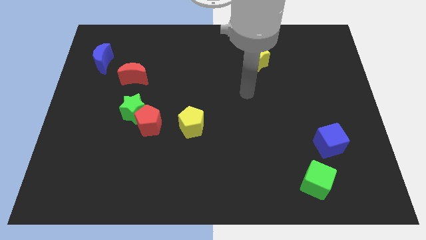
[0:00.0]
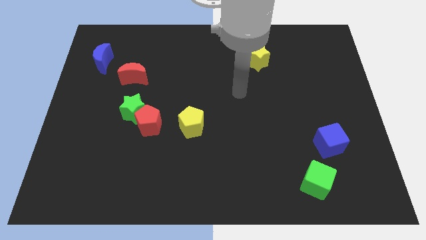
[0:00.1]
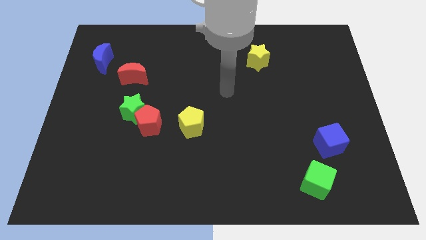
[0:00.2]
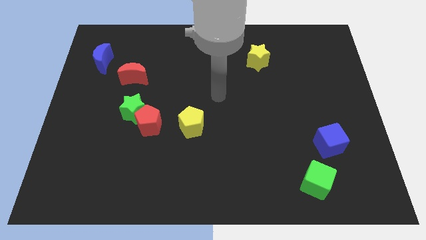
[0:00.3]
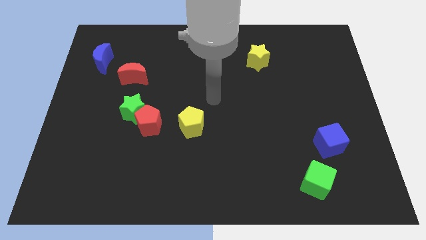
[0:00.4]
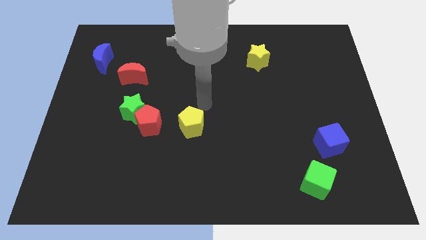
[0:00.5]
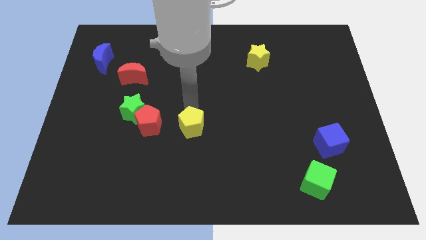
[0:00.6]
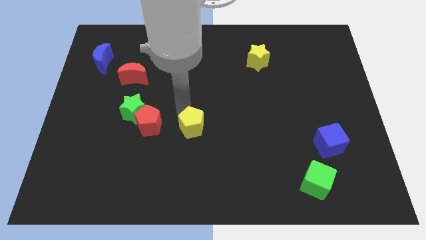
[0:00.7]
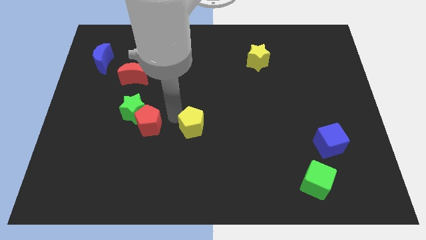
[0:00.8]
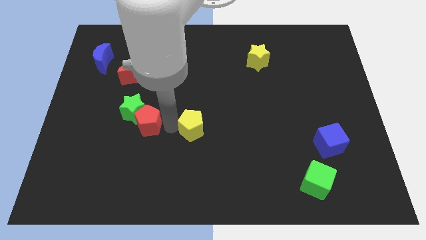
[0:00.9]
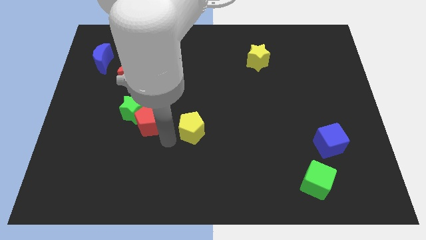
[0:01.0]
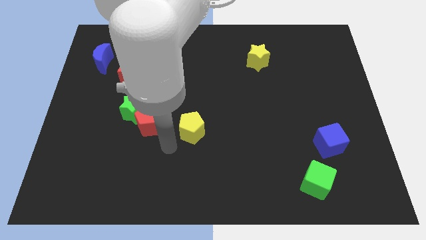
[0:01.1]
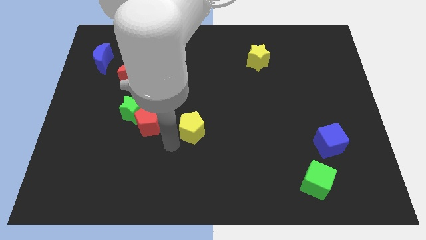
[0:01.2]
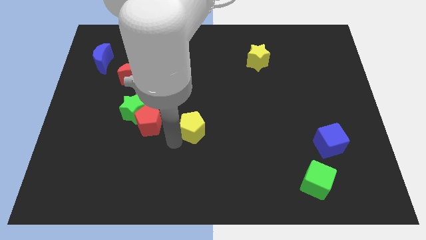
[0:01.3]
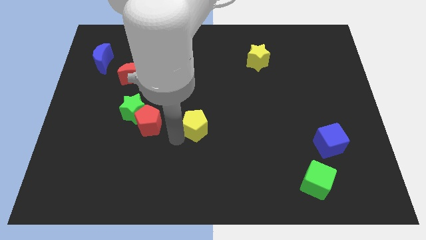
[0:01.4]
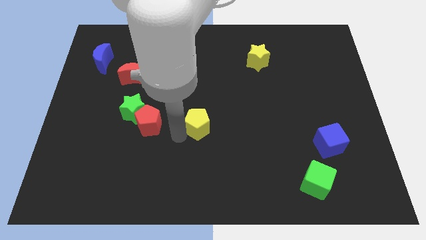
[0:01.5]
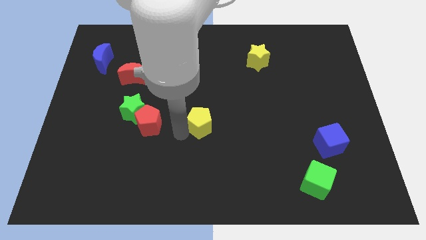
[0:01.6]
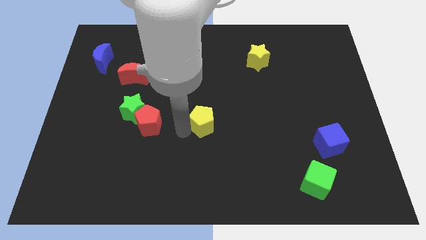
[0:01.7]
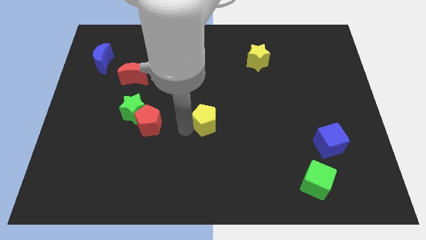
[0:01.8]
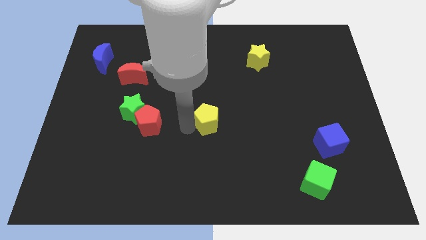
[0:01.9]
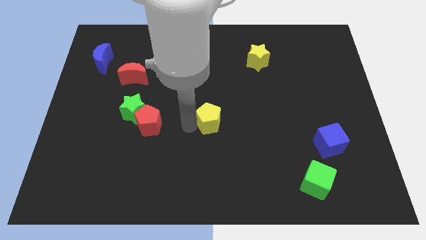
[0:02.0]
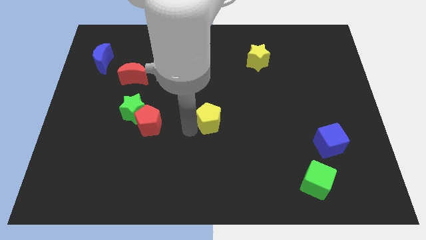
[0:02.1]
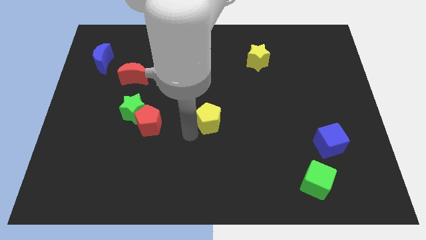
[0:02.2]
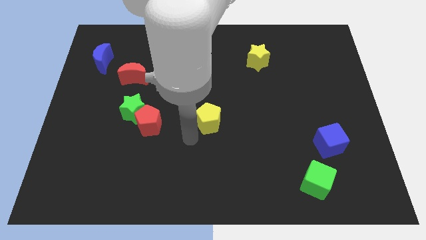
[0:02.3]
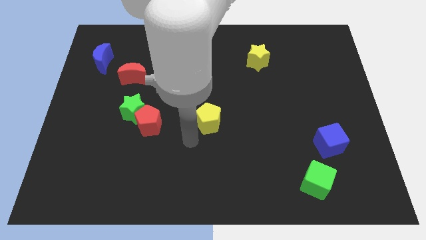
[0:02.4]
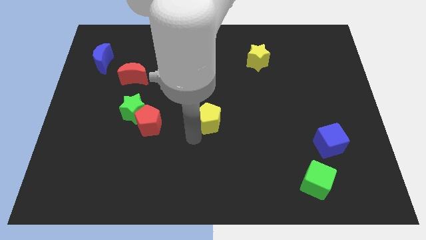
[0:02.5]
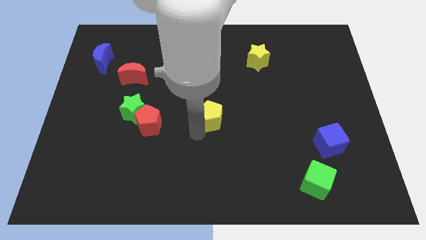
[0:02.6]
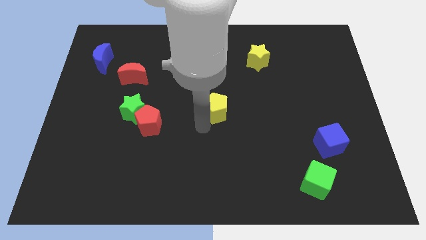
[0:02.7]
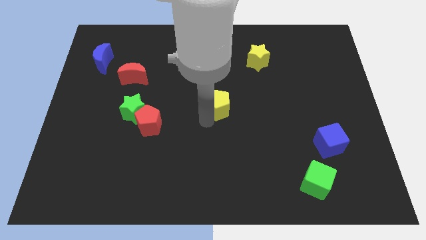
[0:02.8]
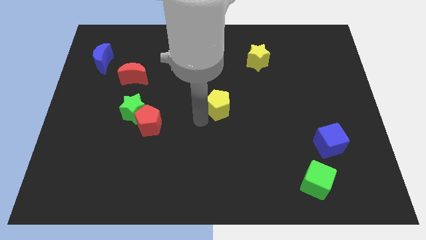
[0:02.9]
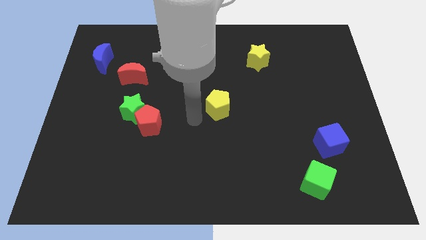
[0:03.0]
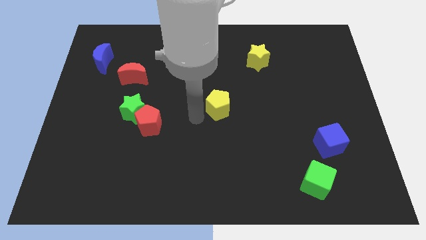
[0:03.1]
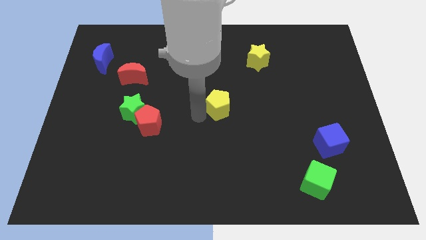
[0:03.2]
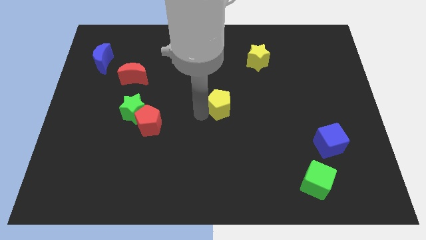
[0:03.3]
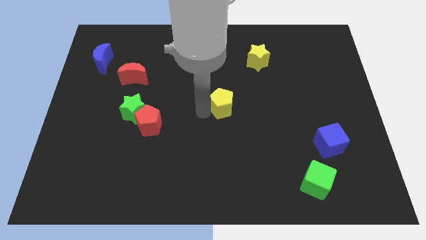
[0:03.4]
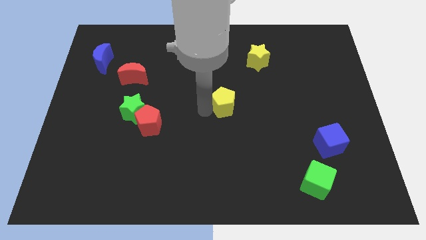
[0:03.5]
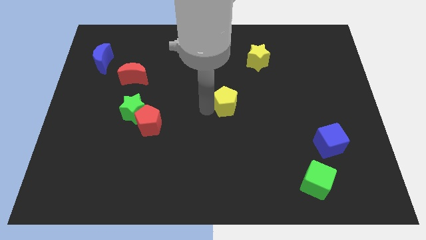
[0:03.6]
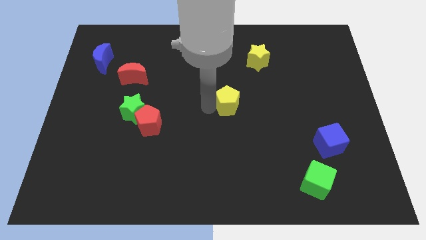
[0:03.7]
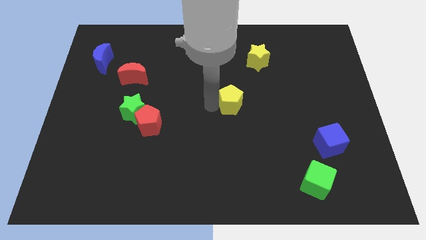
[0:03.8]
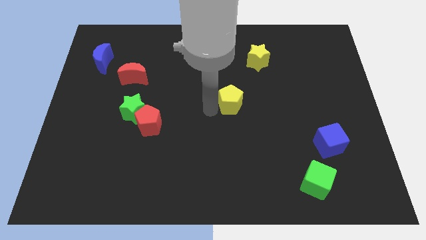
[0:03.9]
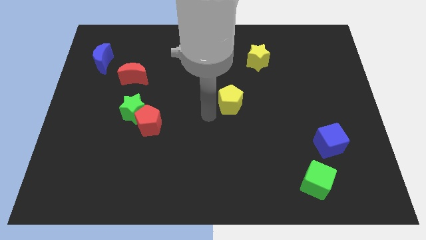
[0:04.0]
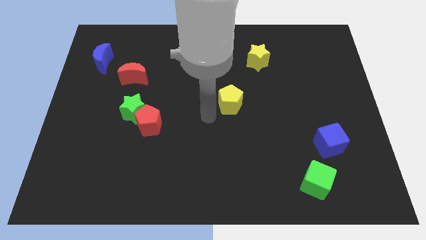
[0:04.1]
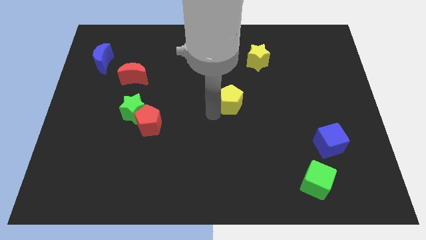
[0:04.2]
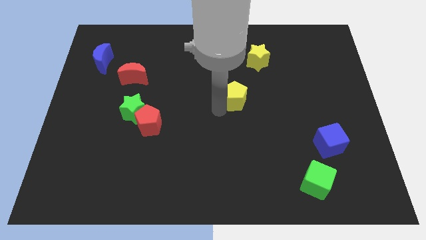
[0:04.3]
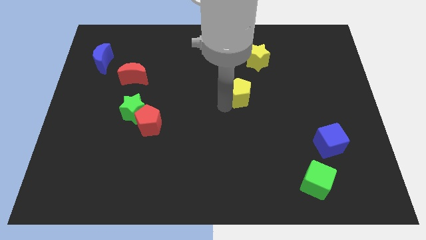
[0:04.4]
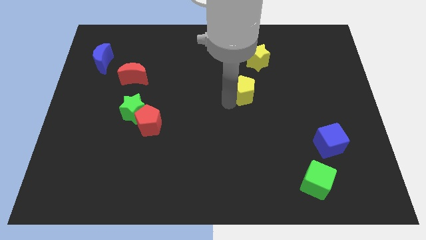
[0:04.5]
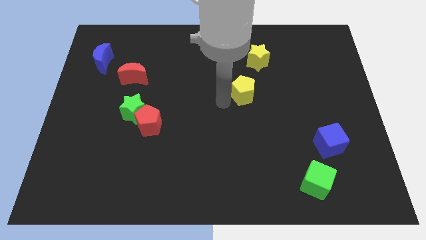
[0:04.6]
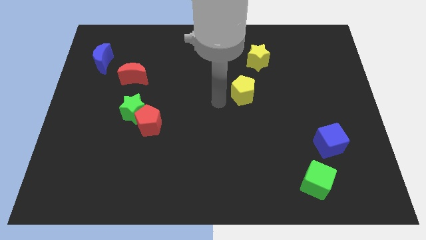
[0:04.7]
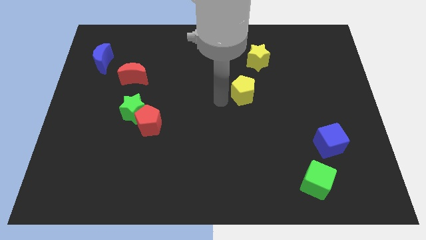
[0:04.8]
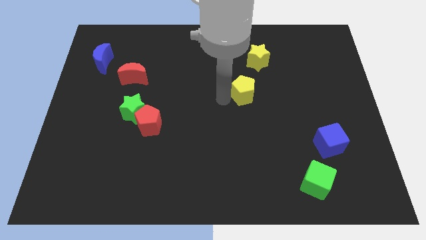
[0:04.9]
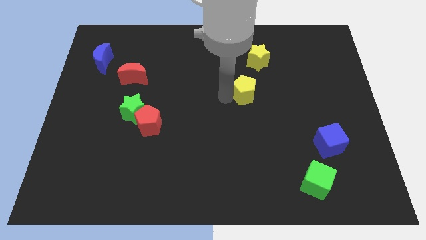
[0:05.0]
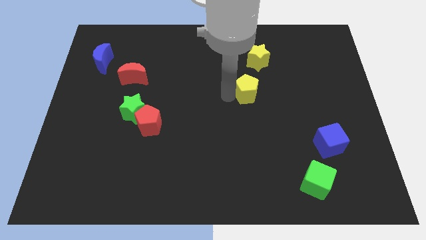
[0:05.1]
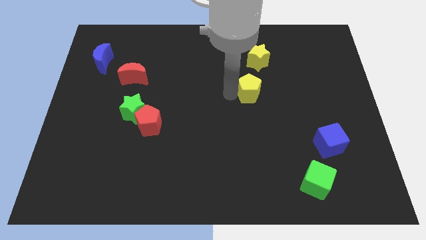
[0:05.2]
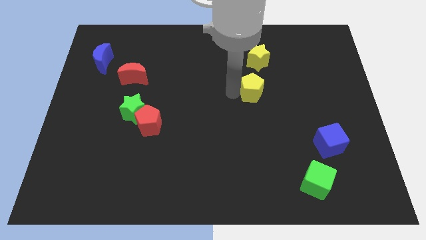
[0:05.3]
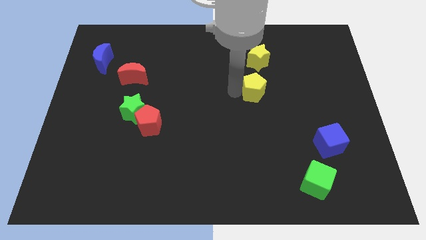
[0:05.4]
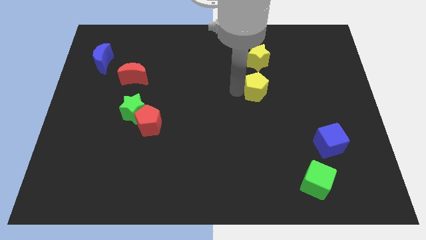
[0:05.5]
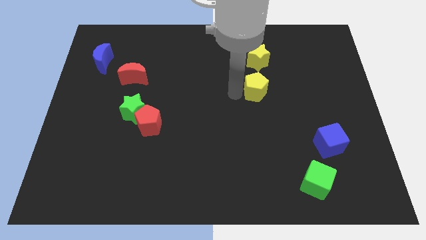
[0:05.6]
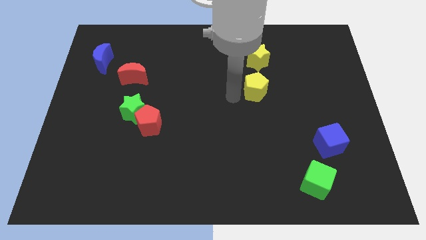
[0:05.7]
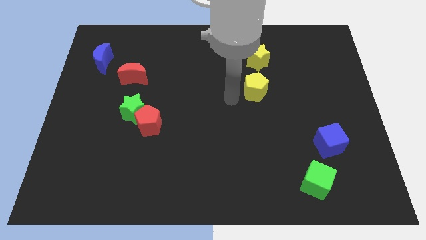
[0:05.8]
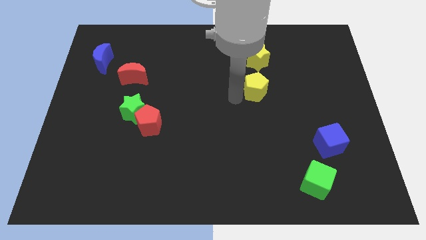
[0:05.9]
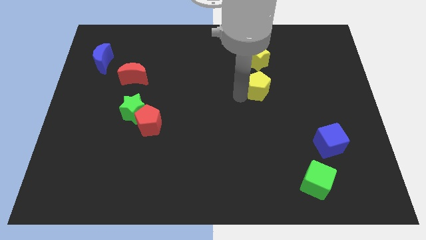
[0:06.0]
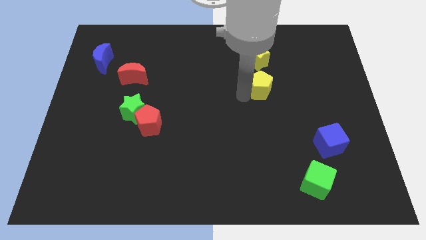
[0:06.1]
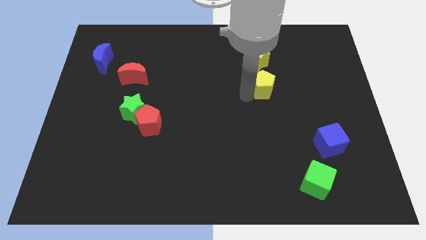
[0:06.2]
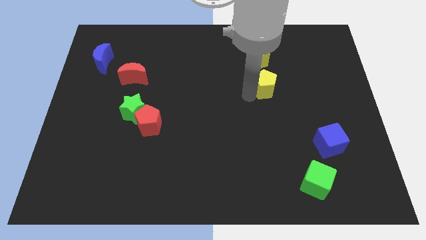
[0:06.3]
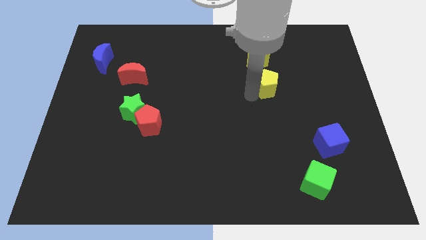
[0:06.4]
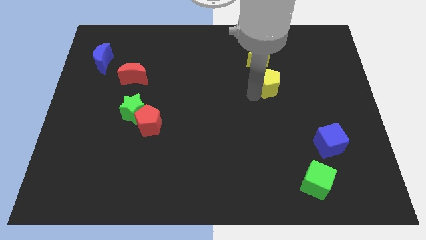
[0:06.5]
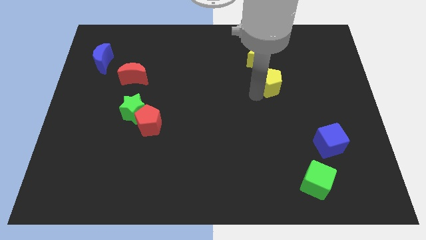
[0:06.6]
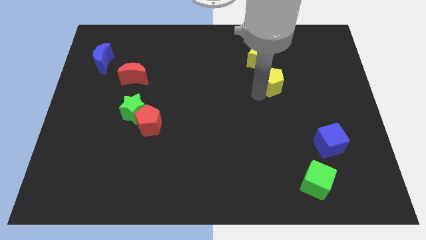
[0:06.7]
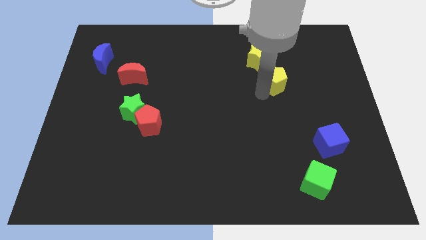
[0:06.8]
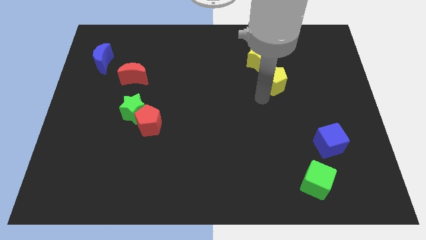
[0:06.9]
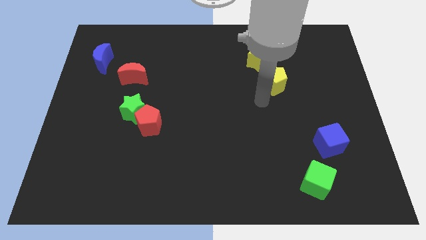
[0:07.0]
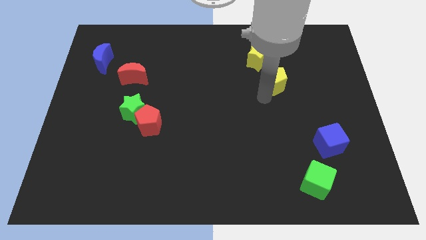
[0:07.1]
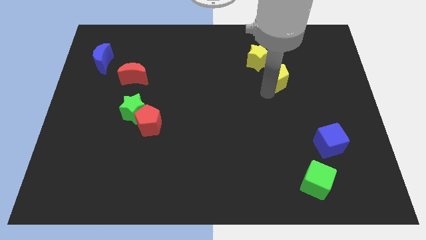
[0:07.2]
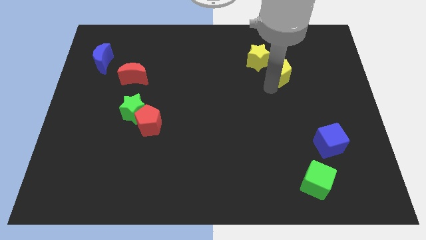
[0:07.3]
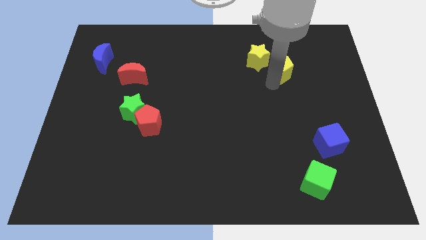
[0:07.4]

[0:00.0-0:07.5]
put the yellow pentagon to the right side of the yellow star
